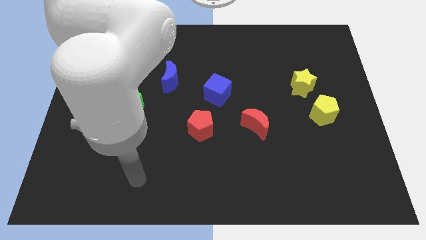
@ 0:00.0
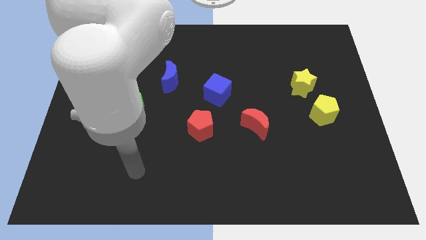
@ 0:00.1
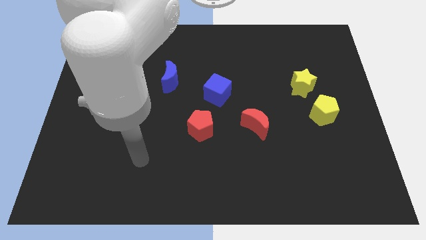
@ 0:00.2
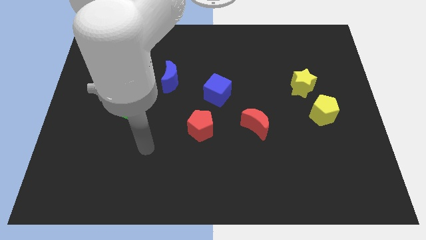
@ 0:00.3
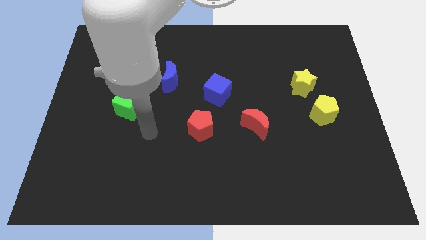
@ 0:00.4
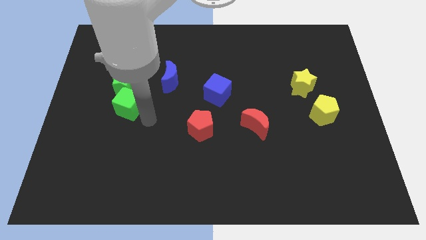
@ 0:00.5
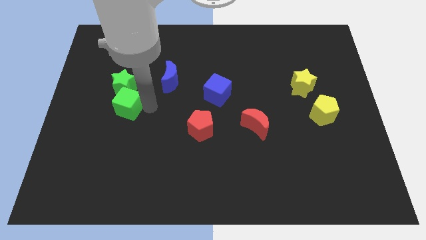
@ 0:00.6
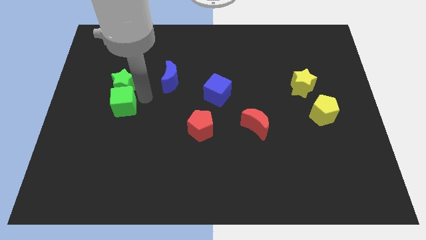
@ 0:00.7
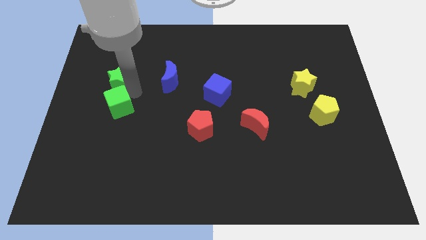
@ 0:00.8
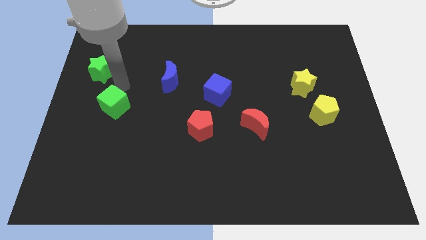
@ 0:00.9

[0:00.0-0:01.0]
move the green cube away from the green star

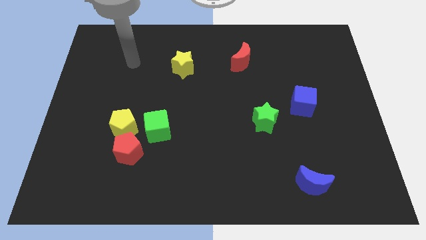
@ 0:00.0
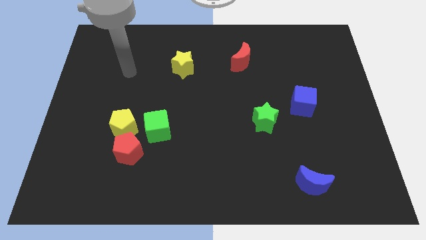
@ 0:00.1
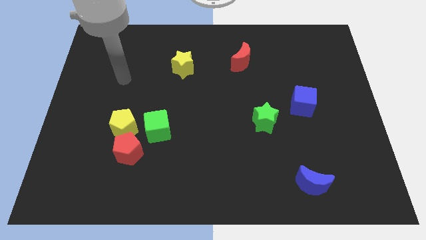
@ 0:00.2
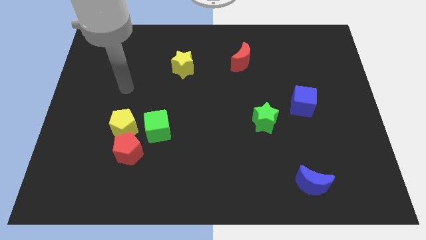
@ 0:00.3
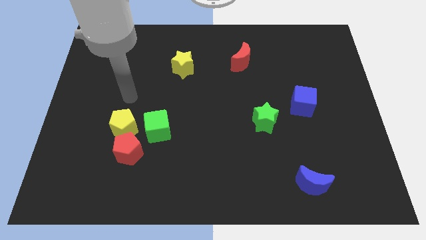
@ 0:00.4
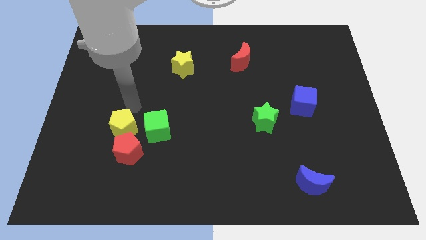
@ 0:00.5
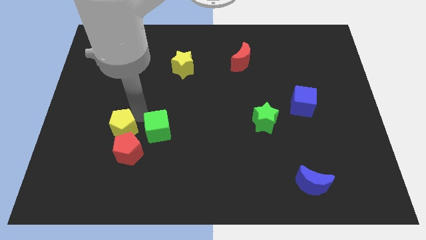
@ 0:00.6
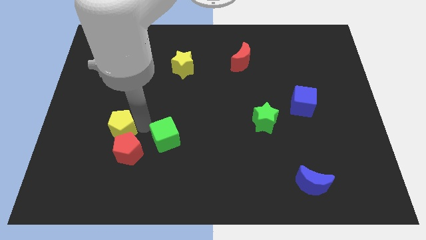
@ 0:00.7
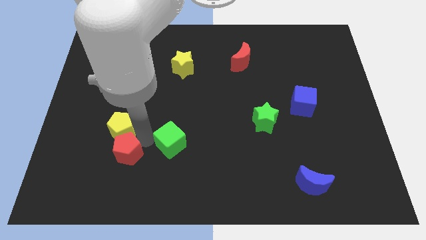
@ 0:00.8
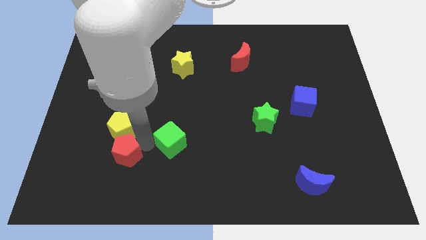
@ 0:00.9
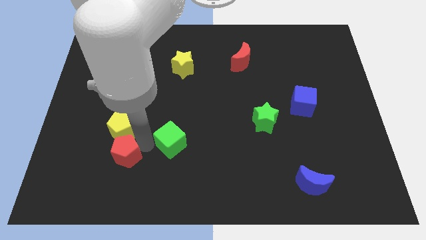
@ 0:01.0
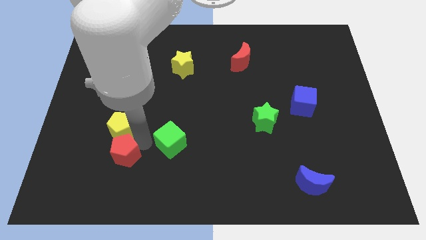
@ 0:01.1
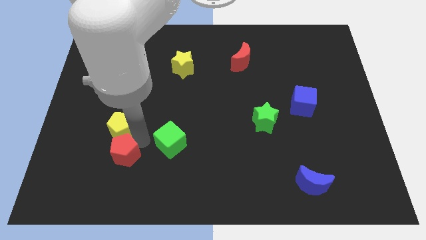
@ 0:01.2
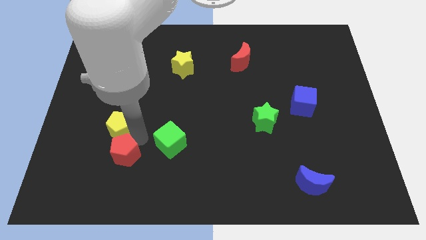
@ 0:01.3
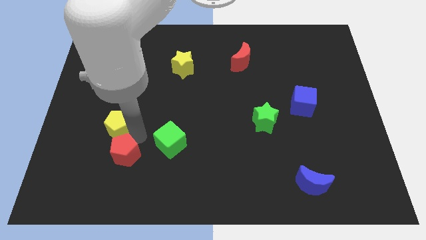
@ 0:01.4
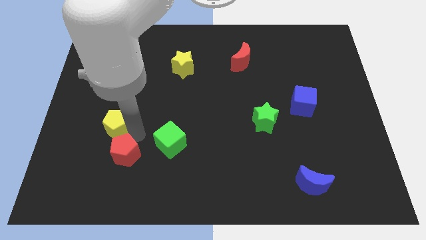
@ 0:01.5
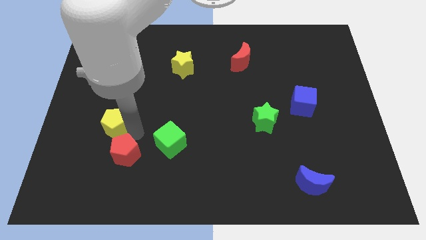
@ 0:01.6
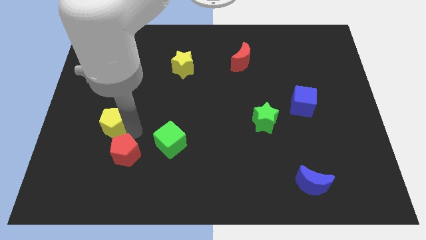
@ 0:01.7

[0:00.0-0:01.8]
pull the yellow pentagon apart from the red pentagon and green cube

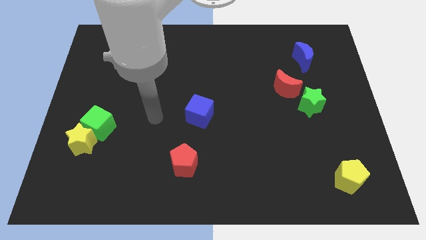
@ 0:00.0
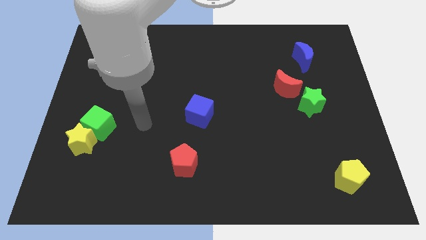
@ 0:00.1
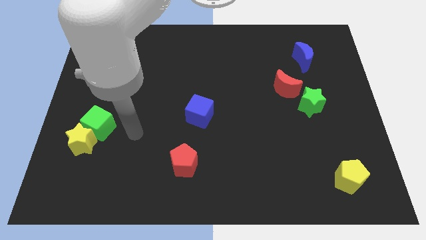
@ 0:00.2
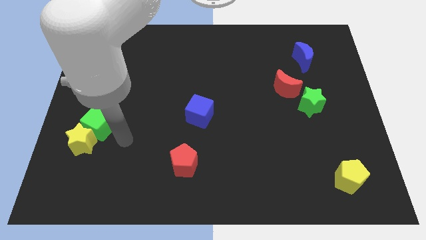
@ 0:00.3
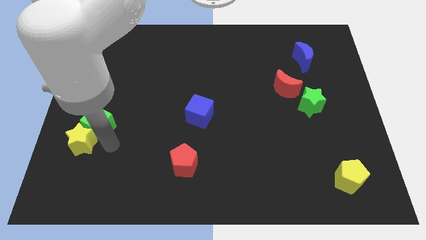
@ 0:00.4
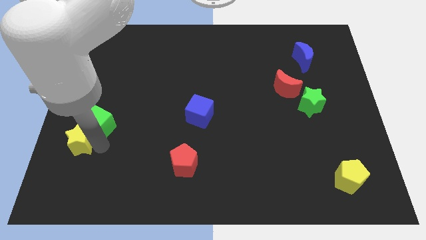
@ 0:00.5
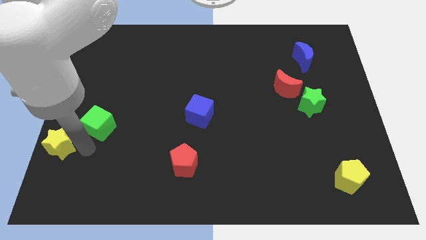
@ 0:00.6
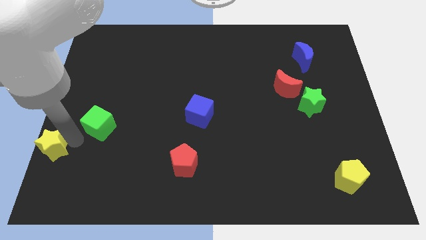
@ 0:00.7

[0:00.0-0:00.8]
separate the green cube from the yellow star

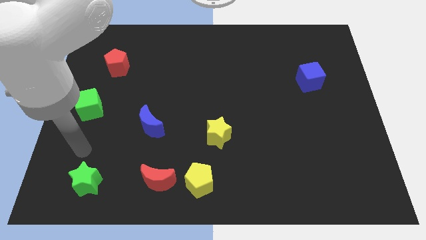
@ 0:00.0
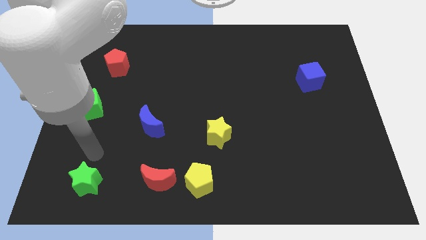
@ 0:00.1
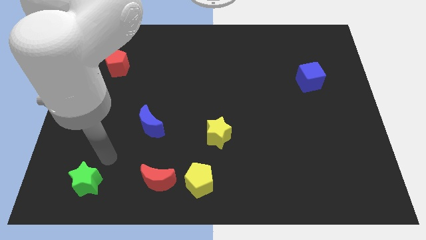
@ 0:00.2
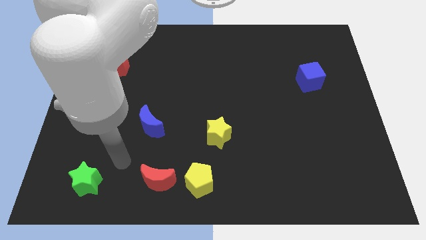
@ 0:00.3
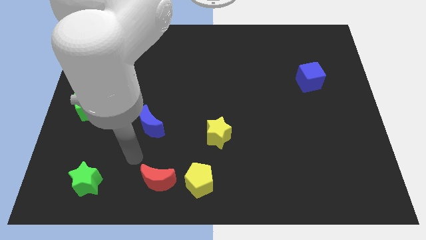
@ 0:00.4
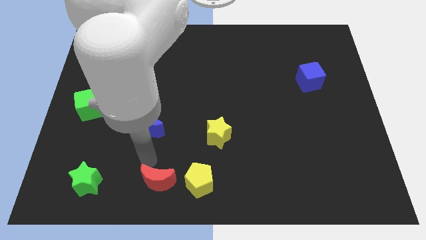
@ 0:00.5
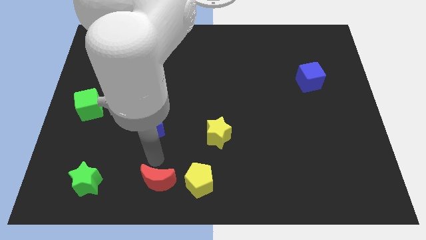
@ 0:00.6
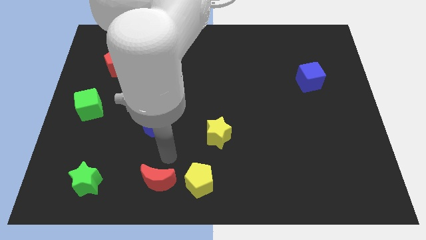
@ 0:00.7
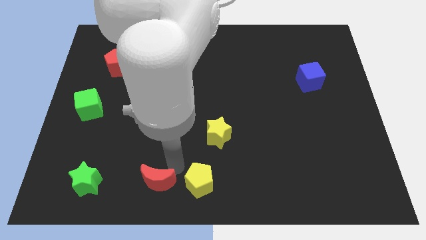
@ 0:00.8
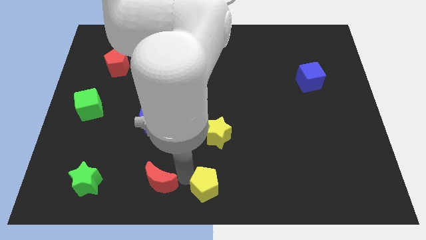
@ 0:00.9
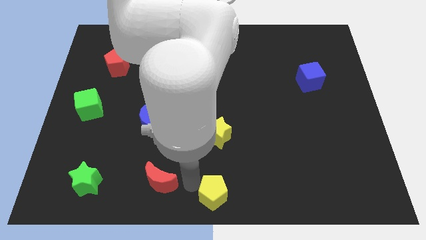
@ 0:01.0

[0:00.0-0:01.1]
separate the red moon from the yellow pentagon

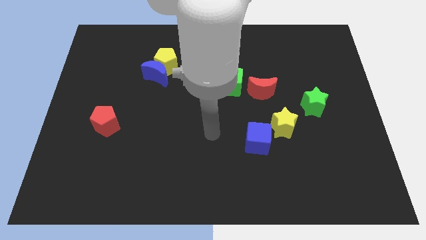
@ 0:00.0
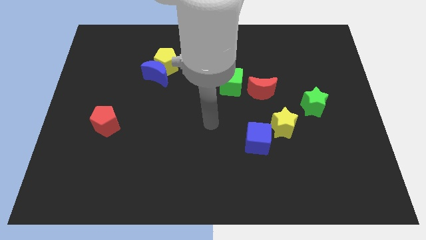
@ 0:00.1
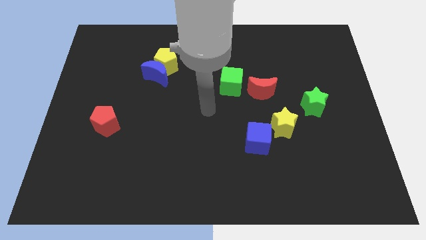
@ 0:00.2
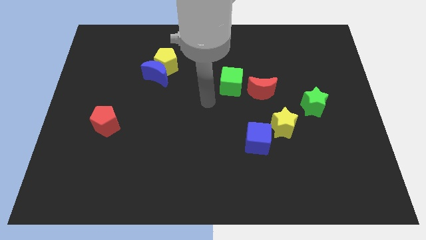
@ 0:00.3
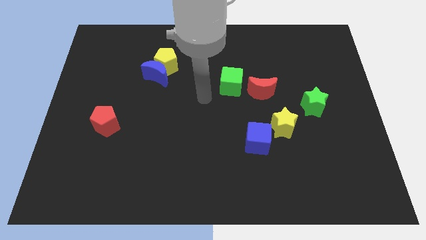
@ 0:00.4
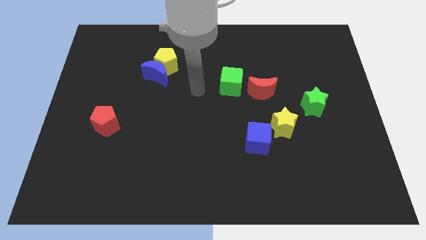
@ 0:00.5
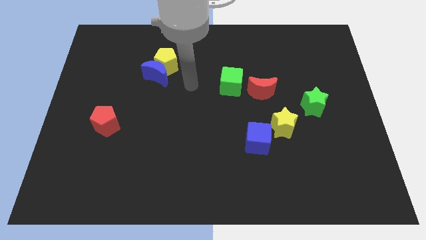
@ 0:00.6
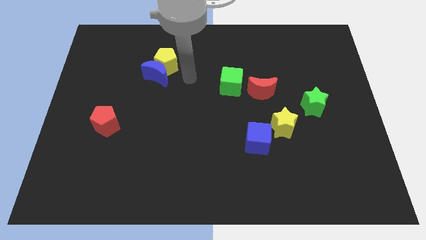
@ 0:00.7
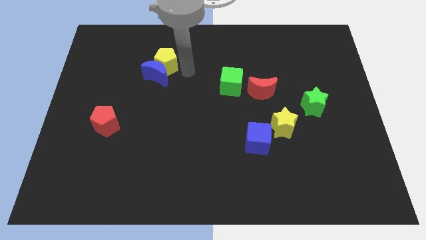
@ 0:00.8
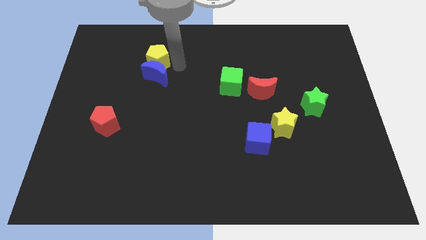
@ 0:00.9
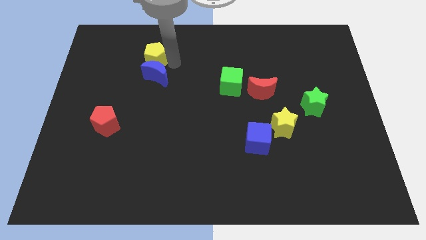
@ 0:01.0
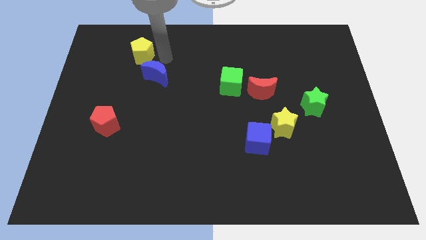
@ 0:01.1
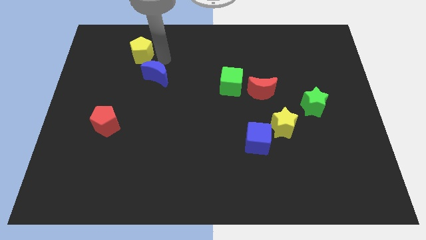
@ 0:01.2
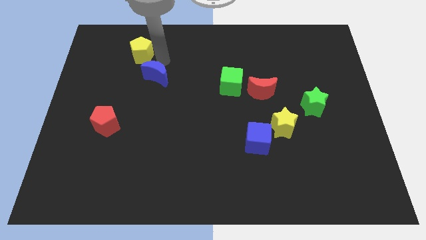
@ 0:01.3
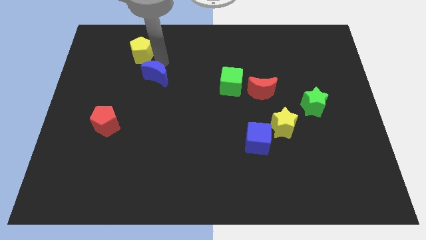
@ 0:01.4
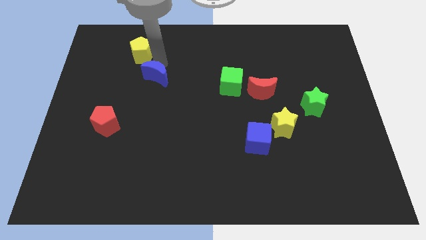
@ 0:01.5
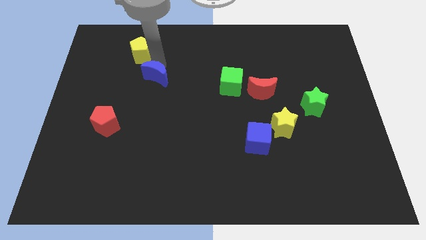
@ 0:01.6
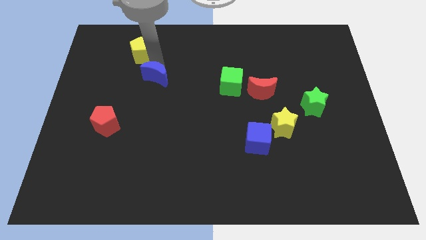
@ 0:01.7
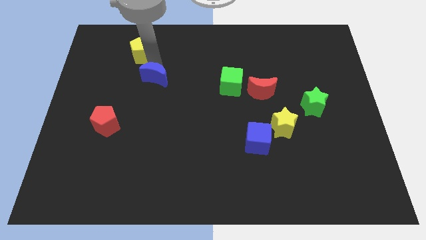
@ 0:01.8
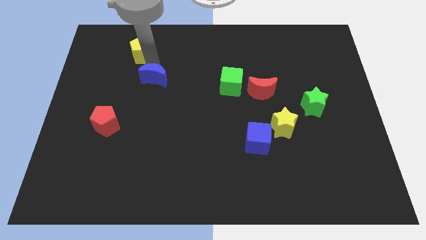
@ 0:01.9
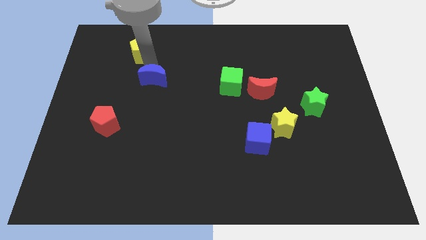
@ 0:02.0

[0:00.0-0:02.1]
separate the blue moon from the yellow pentagon

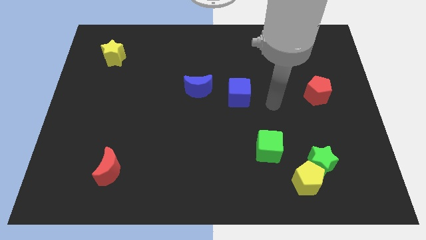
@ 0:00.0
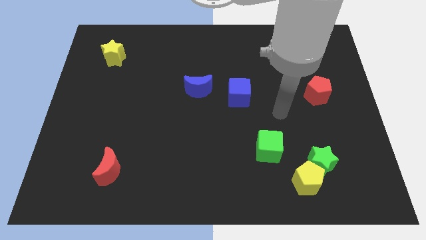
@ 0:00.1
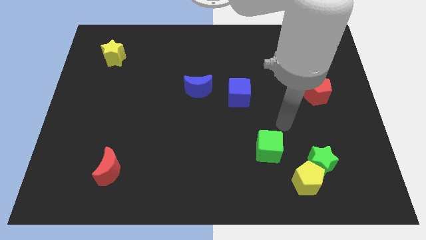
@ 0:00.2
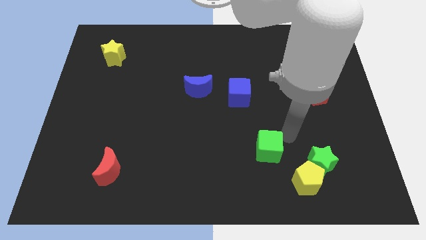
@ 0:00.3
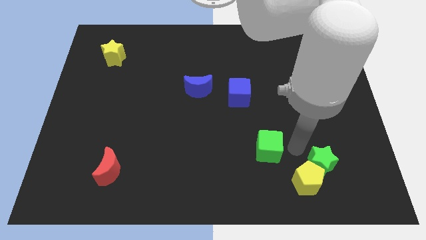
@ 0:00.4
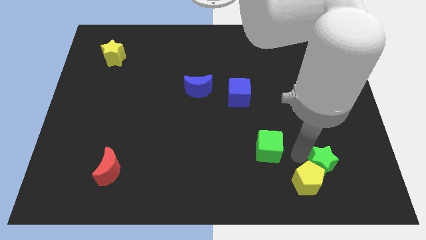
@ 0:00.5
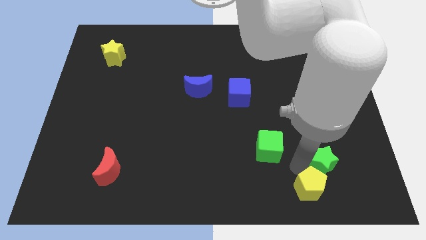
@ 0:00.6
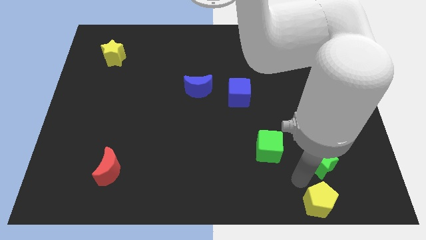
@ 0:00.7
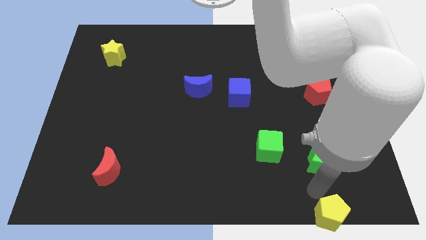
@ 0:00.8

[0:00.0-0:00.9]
move the green star away from the yellow pentagon

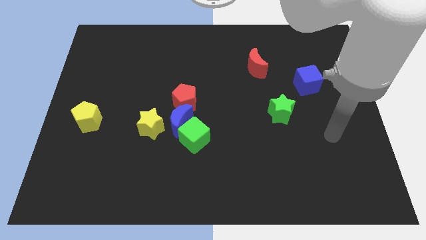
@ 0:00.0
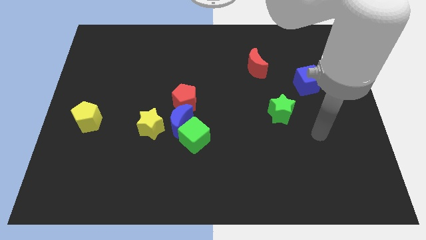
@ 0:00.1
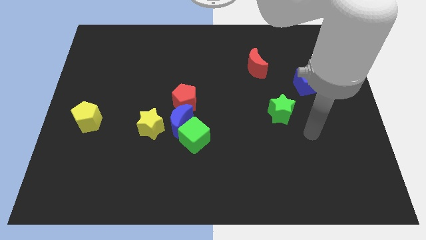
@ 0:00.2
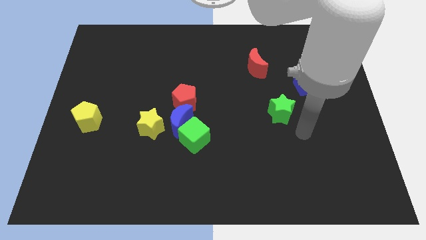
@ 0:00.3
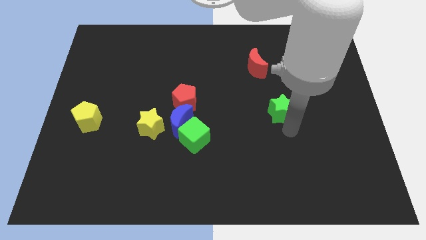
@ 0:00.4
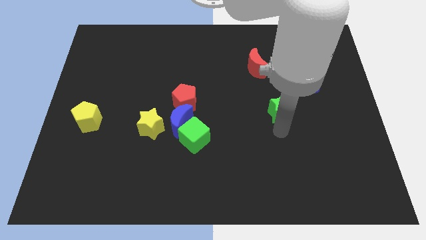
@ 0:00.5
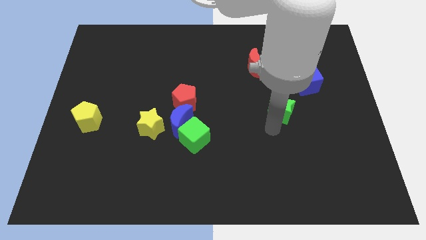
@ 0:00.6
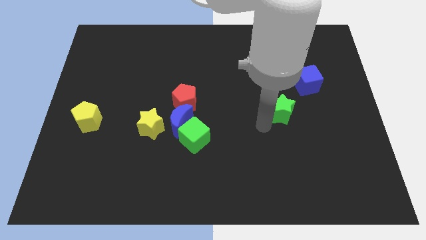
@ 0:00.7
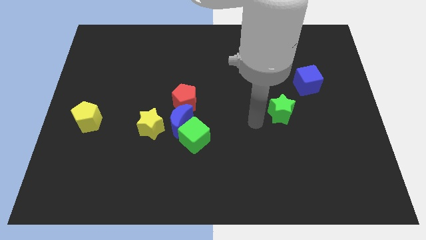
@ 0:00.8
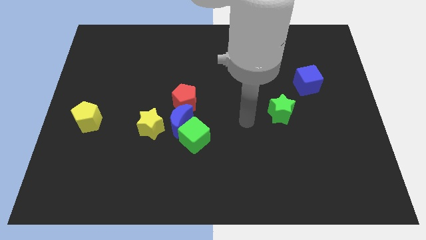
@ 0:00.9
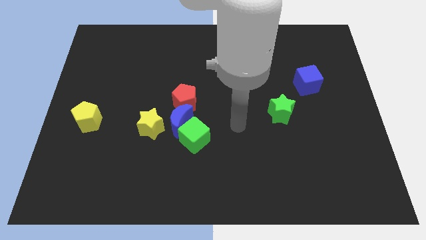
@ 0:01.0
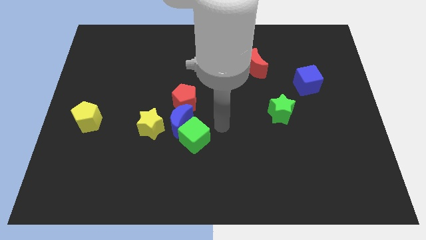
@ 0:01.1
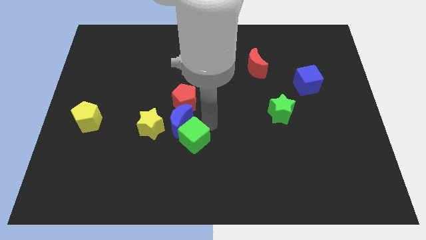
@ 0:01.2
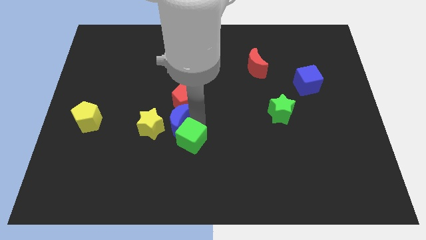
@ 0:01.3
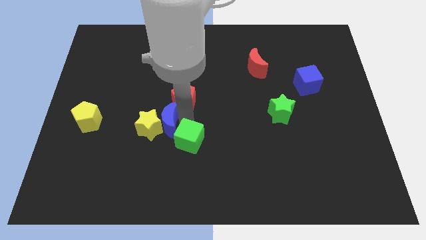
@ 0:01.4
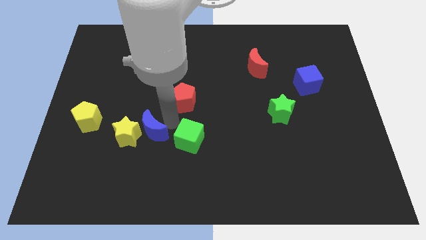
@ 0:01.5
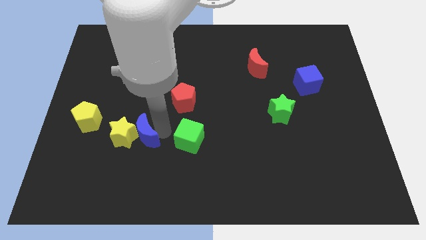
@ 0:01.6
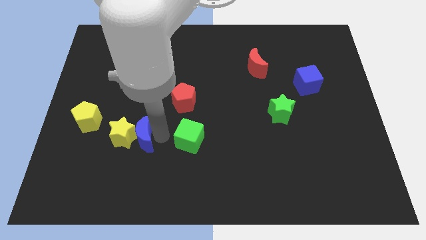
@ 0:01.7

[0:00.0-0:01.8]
separate the green cube from the blue moon
